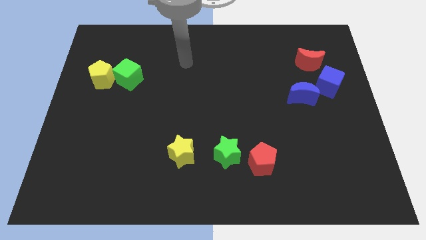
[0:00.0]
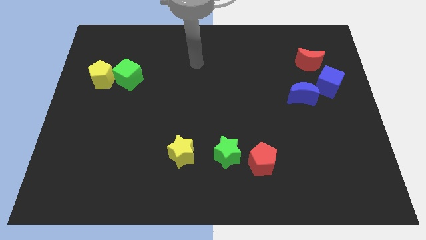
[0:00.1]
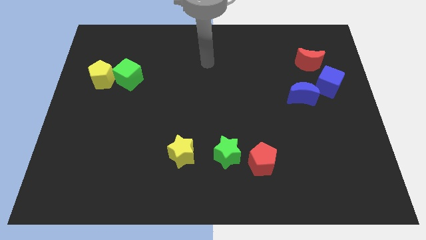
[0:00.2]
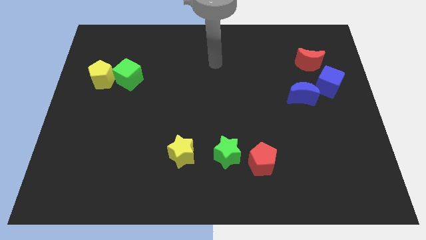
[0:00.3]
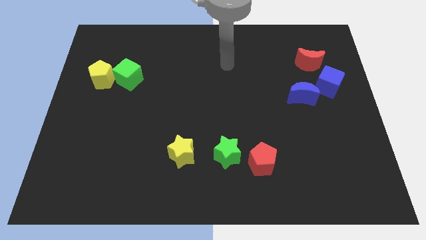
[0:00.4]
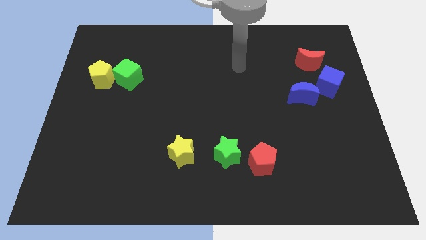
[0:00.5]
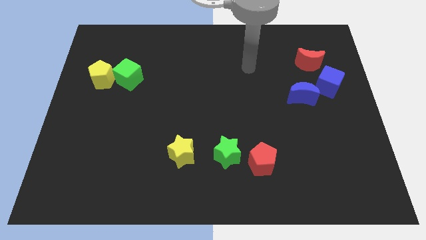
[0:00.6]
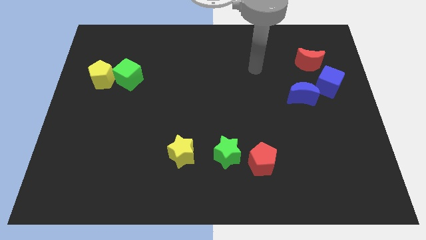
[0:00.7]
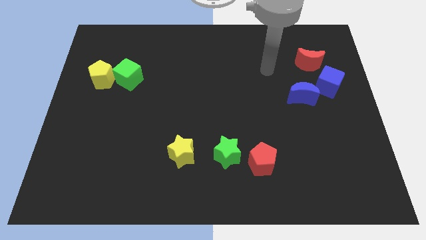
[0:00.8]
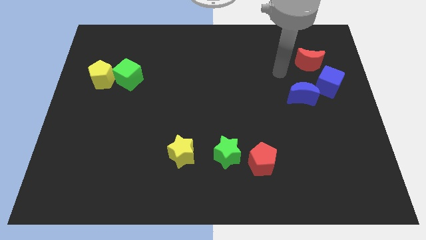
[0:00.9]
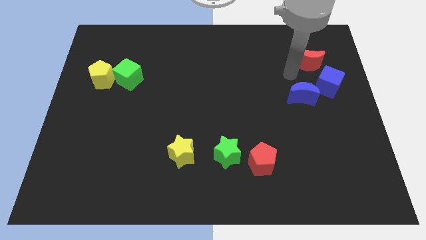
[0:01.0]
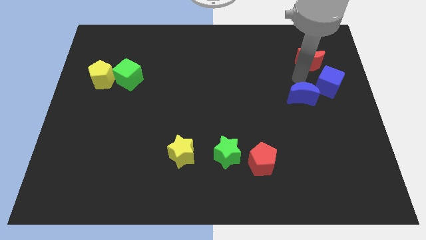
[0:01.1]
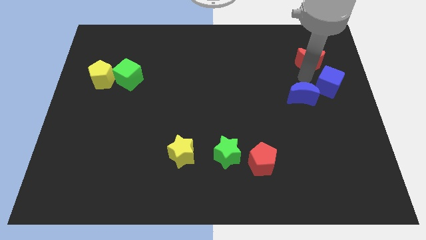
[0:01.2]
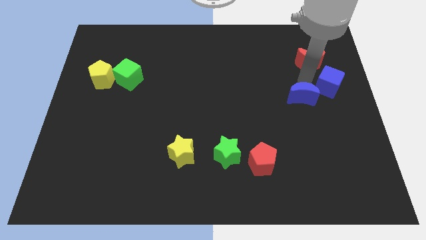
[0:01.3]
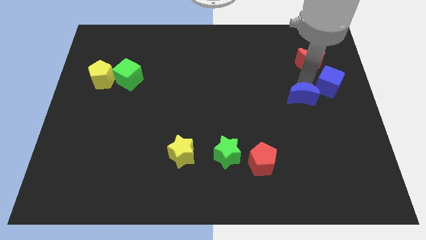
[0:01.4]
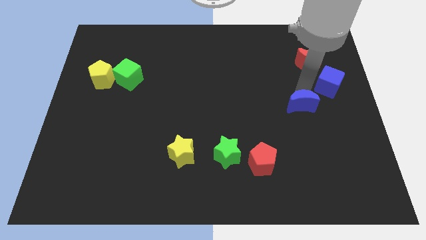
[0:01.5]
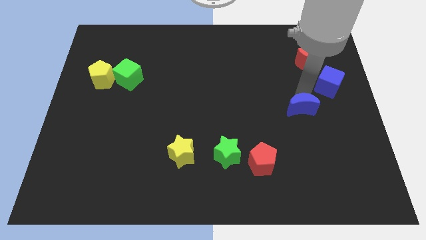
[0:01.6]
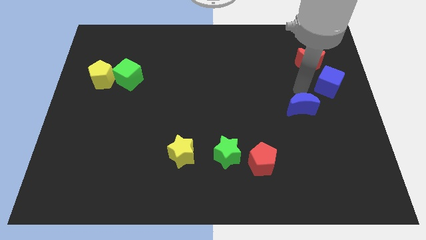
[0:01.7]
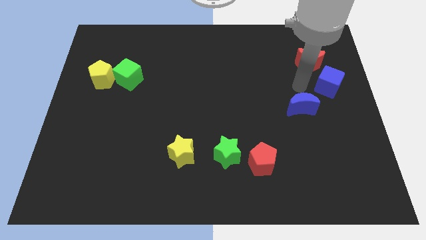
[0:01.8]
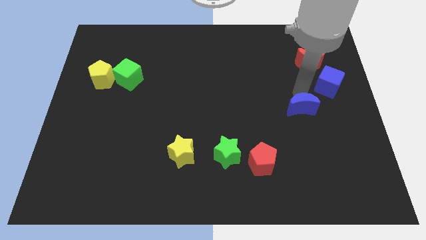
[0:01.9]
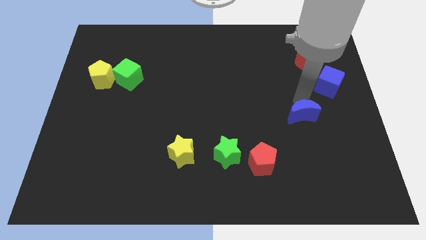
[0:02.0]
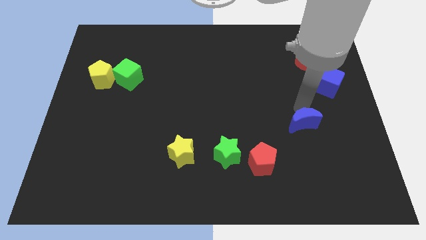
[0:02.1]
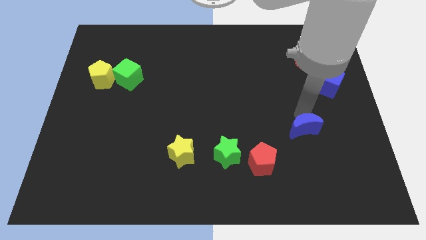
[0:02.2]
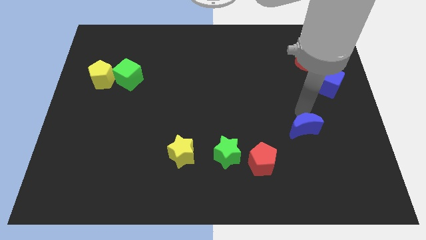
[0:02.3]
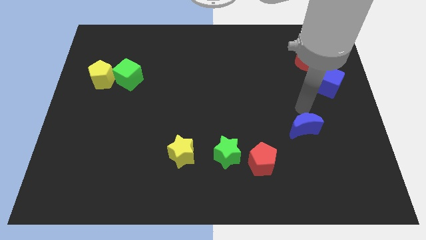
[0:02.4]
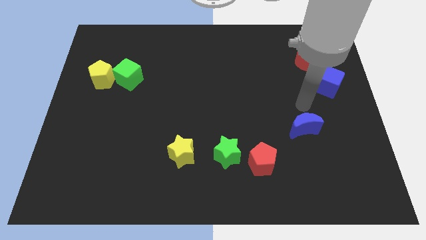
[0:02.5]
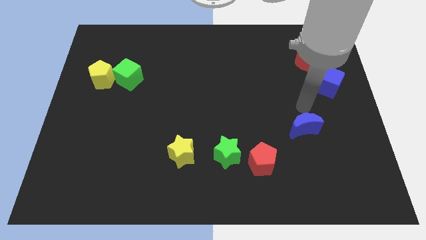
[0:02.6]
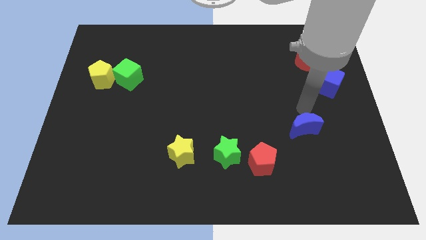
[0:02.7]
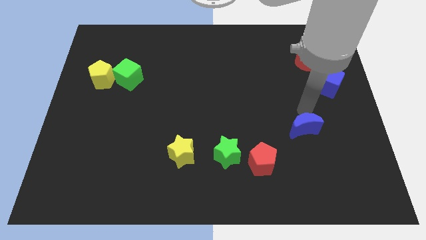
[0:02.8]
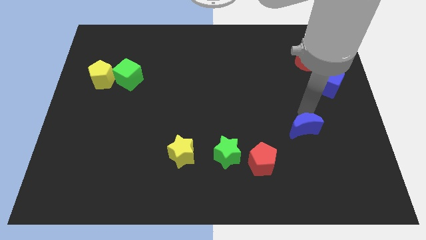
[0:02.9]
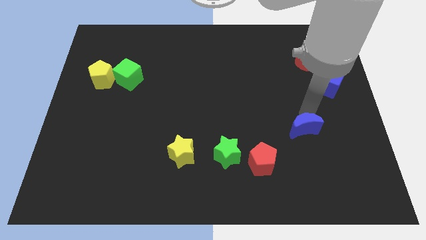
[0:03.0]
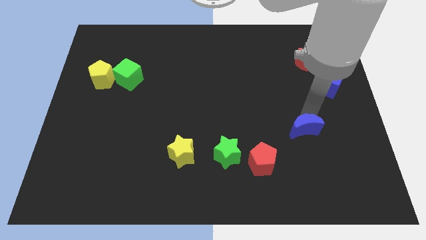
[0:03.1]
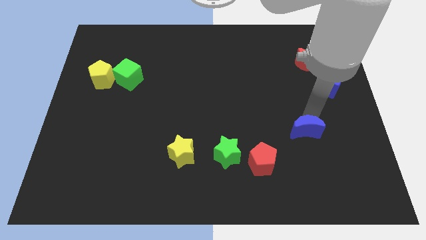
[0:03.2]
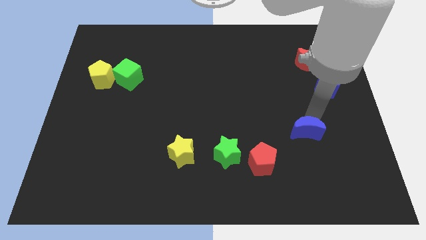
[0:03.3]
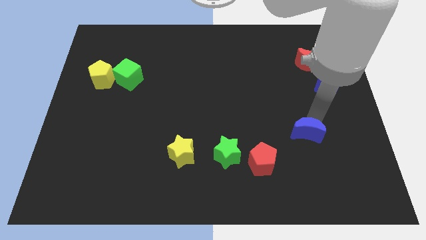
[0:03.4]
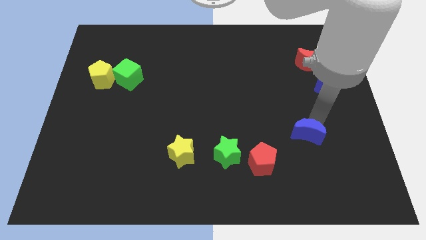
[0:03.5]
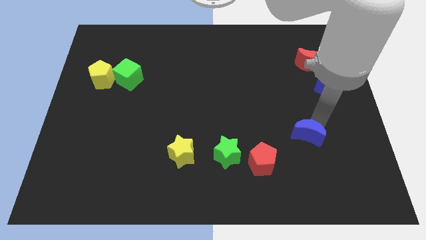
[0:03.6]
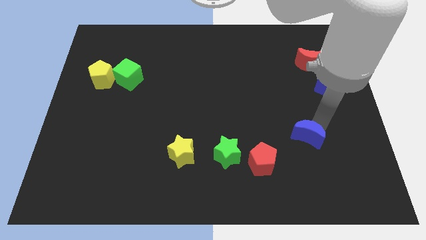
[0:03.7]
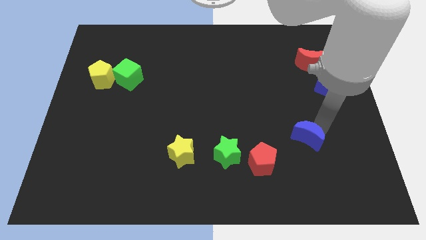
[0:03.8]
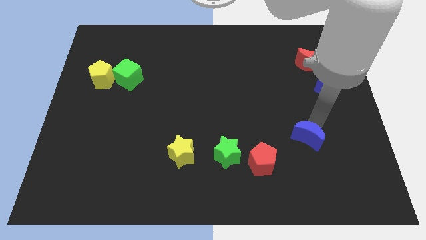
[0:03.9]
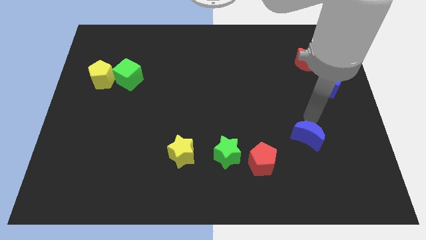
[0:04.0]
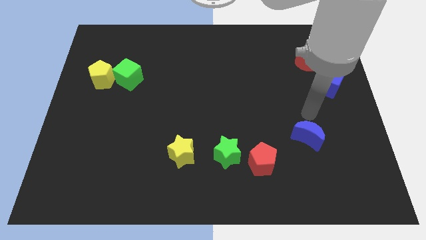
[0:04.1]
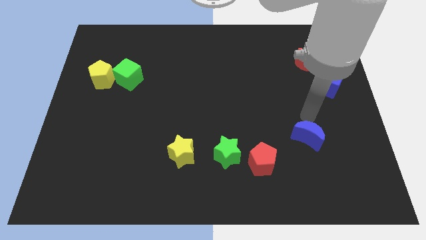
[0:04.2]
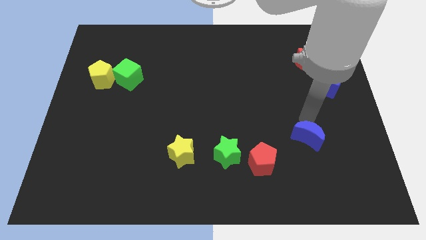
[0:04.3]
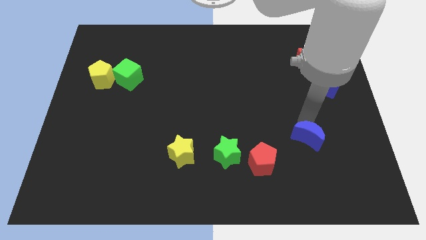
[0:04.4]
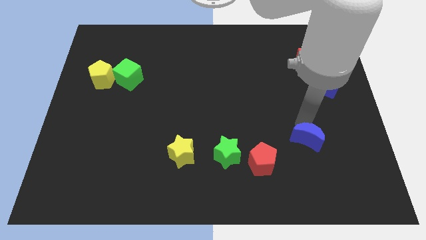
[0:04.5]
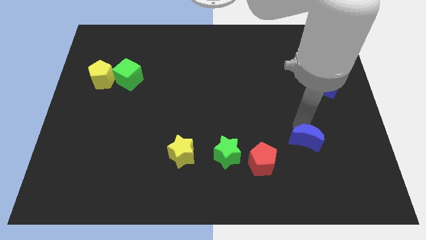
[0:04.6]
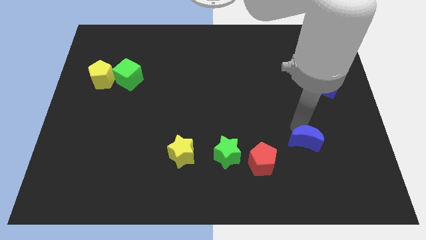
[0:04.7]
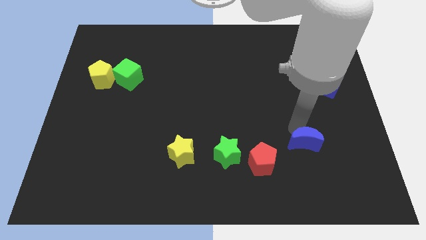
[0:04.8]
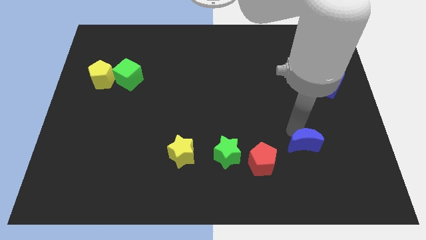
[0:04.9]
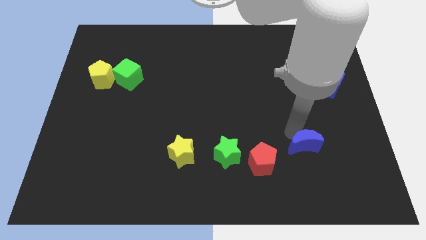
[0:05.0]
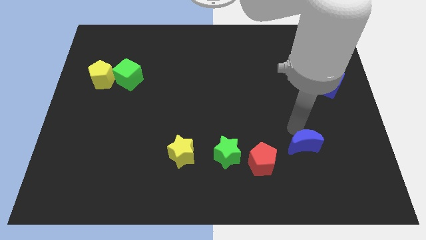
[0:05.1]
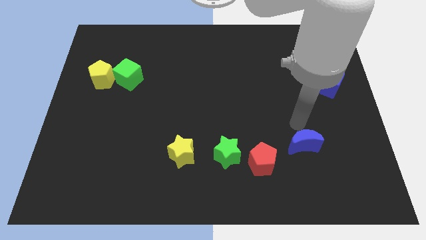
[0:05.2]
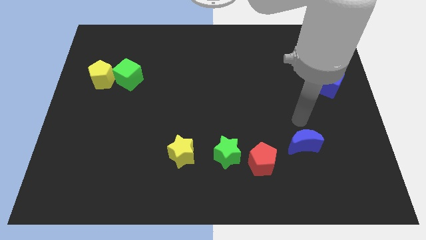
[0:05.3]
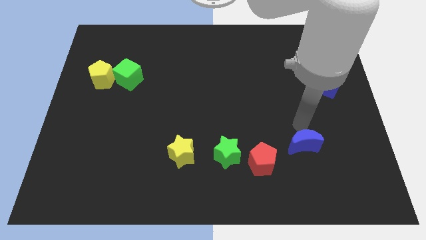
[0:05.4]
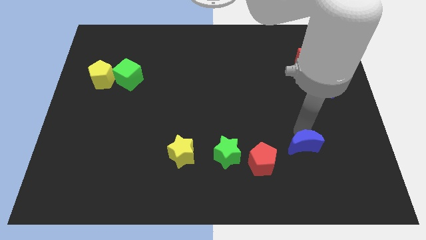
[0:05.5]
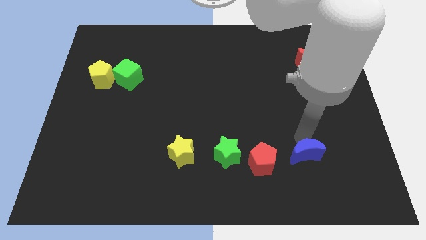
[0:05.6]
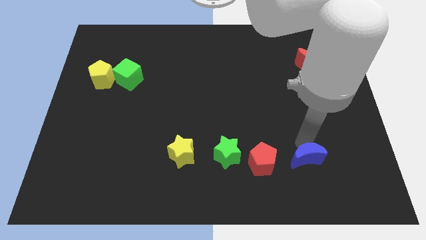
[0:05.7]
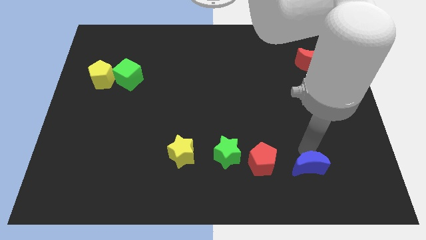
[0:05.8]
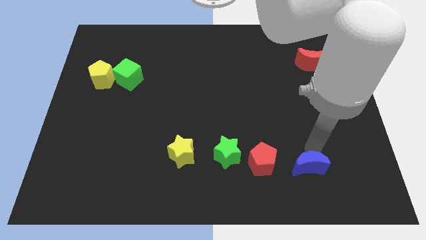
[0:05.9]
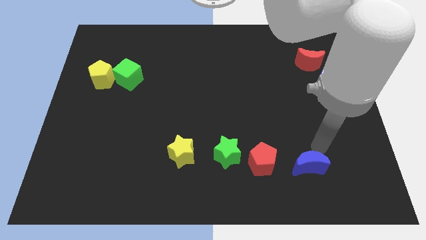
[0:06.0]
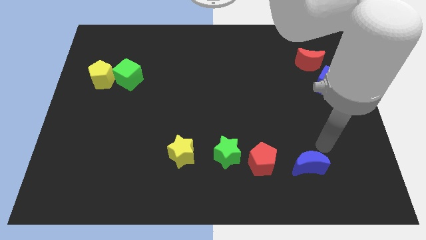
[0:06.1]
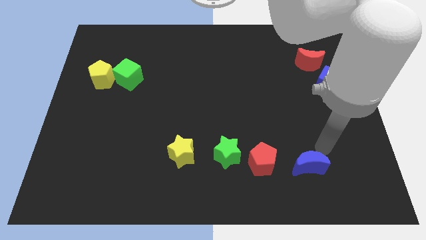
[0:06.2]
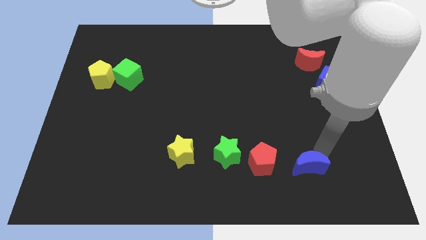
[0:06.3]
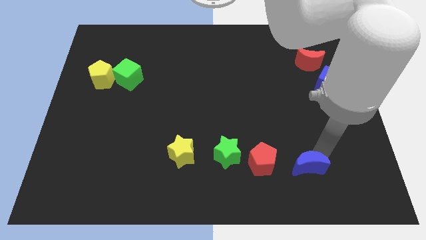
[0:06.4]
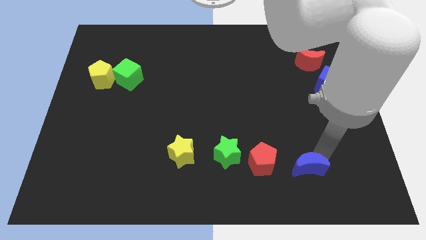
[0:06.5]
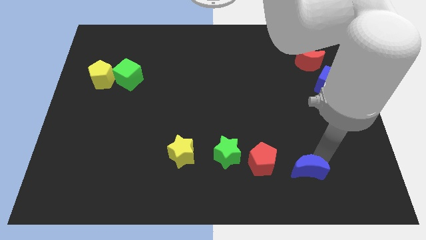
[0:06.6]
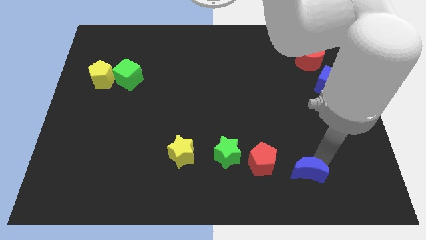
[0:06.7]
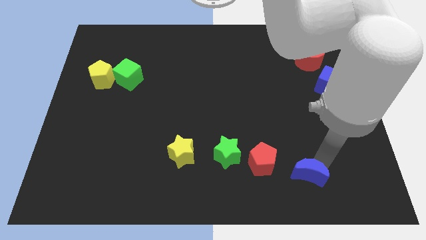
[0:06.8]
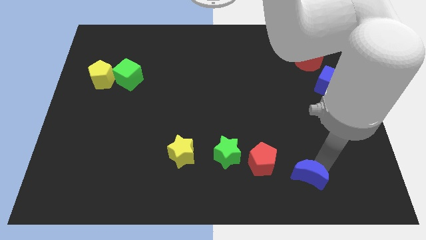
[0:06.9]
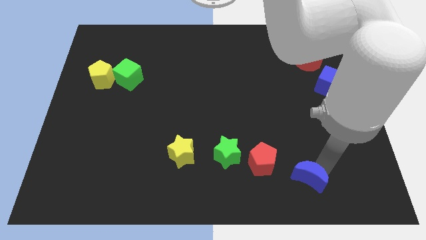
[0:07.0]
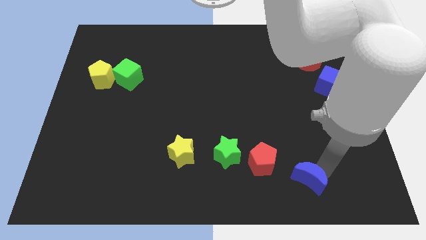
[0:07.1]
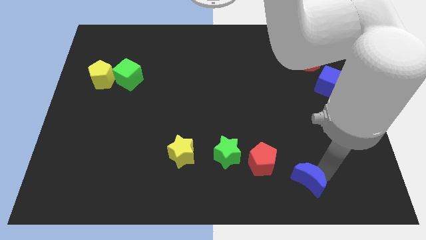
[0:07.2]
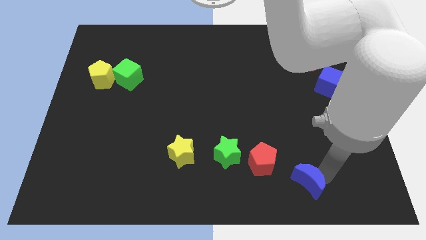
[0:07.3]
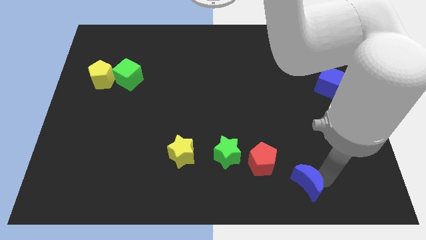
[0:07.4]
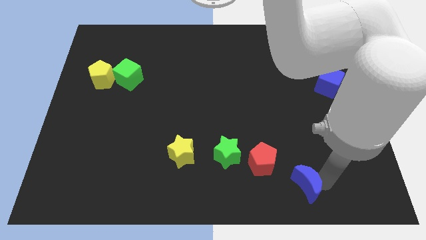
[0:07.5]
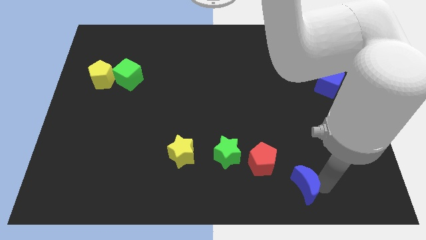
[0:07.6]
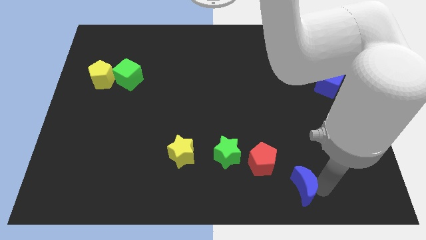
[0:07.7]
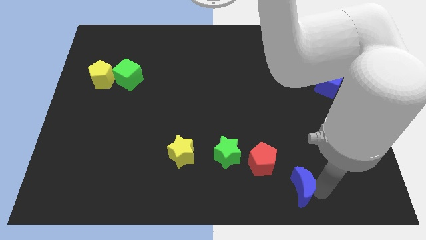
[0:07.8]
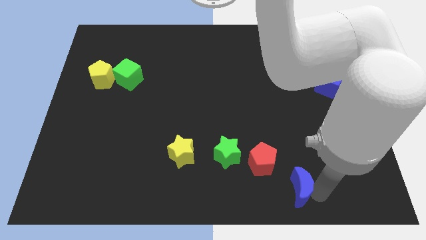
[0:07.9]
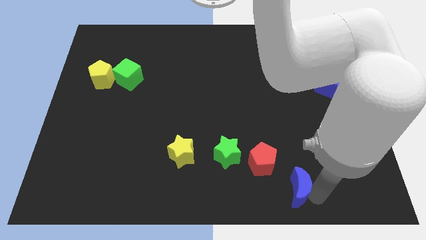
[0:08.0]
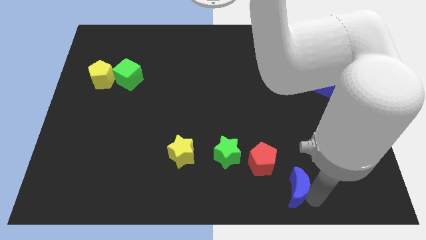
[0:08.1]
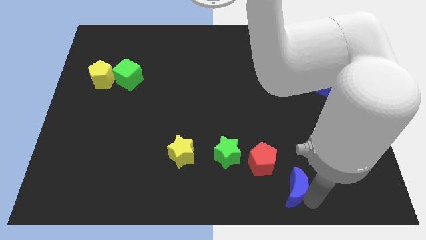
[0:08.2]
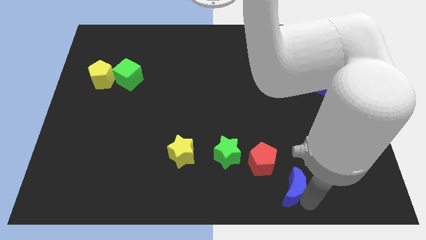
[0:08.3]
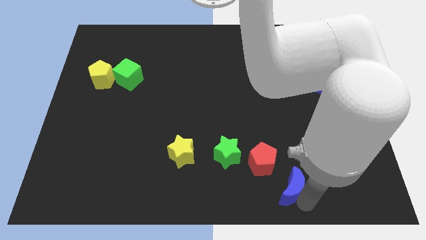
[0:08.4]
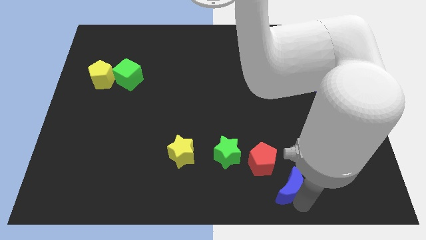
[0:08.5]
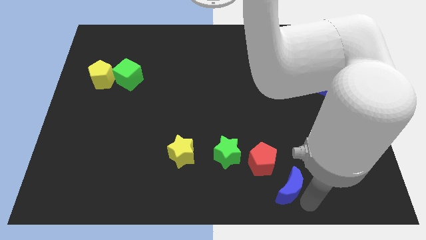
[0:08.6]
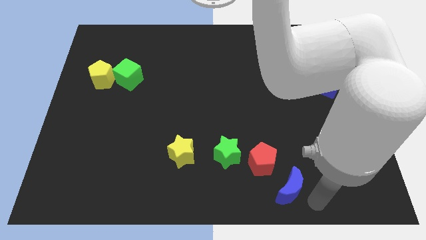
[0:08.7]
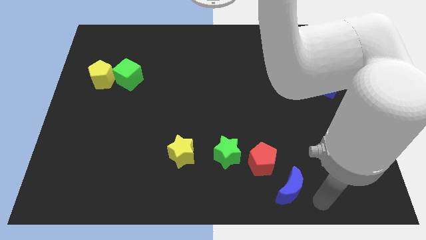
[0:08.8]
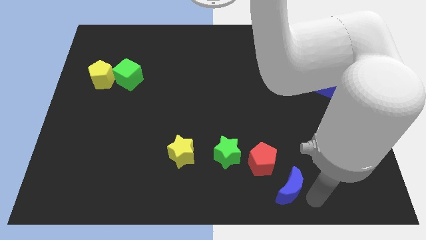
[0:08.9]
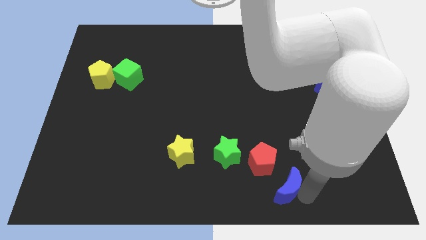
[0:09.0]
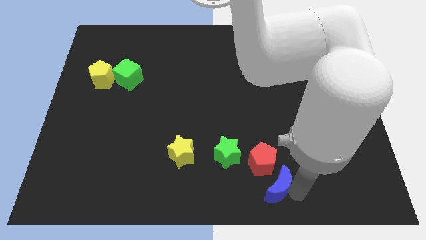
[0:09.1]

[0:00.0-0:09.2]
push the blue moon to the bottom right side of the green star
